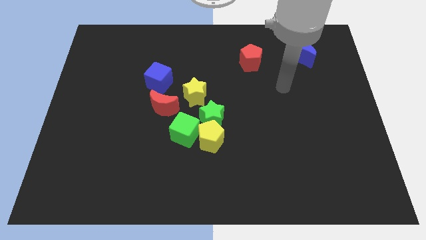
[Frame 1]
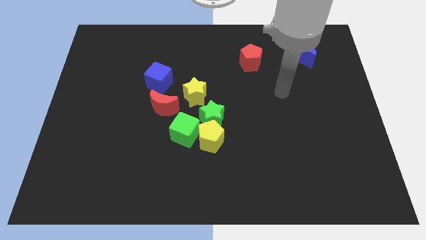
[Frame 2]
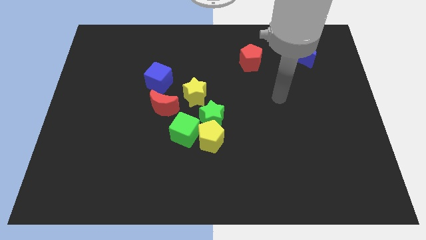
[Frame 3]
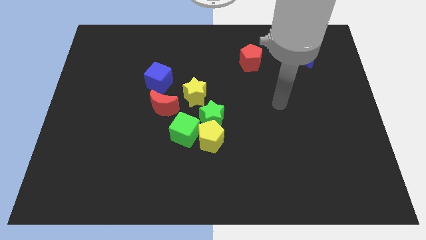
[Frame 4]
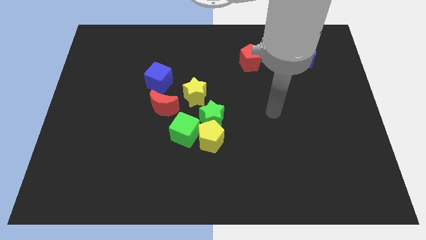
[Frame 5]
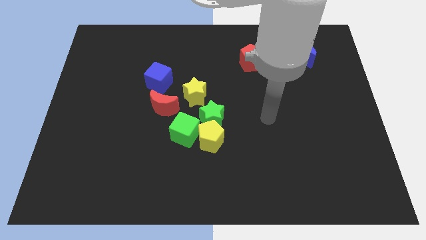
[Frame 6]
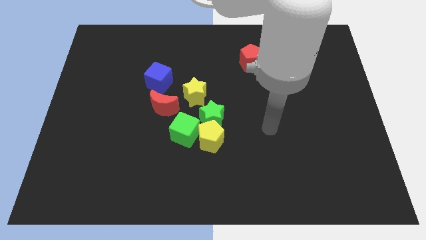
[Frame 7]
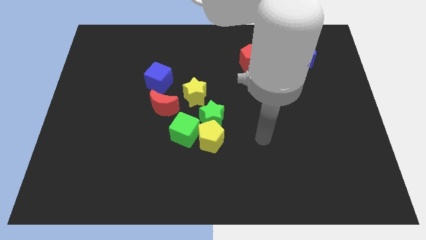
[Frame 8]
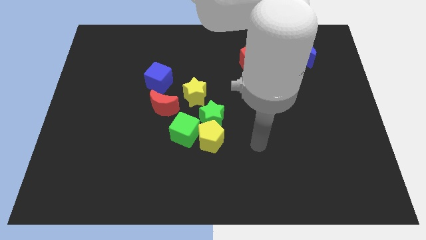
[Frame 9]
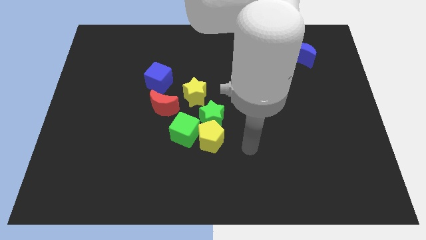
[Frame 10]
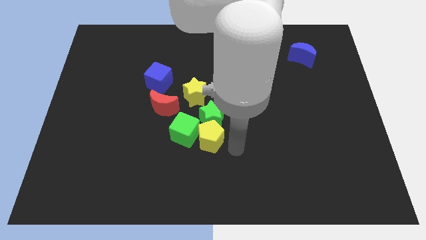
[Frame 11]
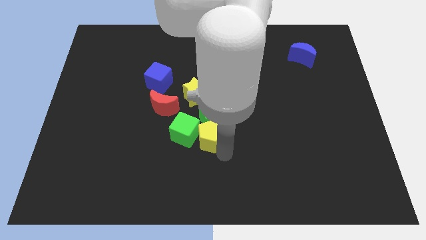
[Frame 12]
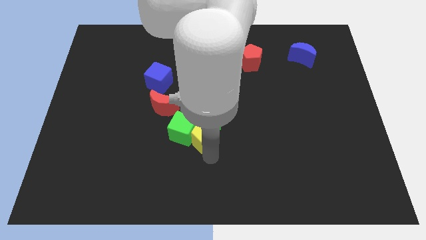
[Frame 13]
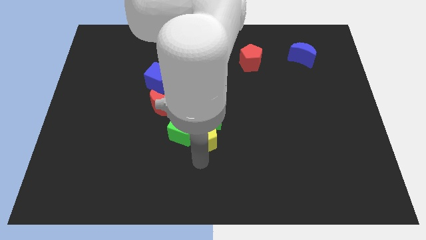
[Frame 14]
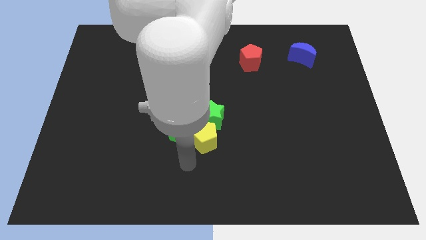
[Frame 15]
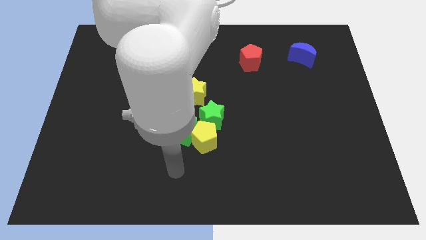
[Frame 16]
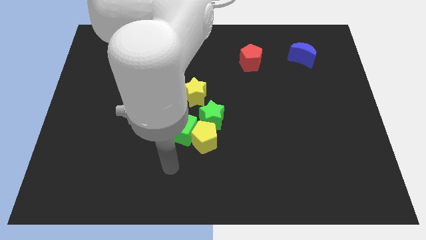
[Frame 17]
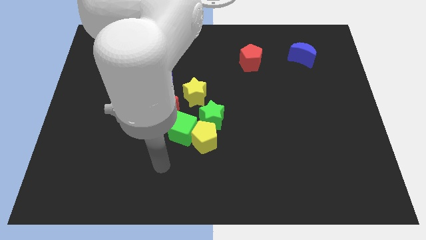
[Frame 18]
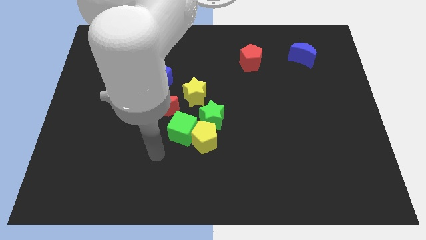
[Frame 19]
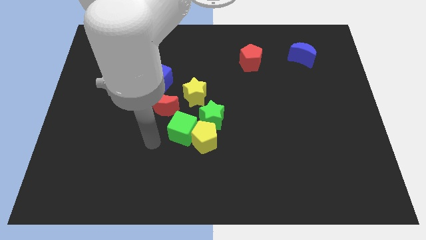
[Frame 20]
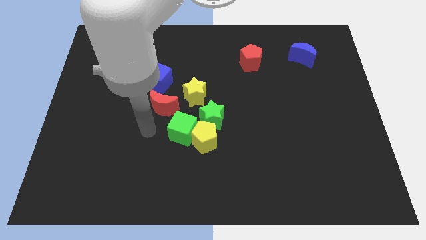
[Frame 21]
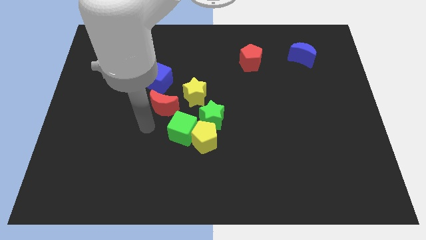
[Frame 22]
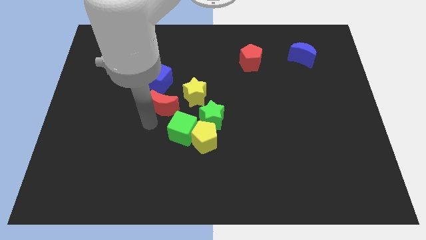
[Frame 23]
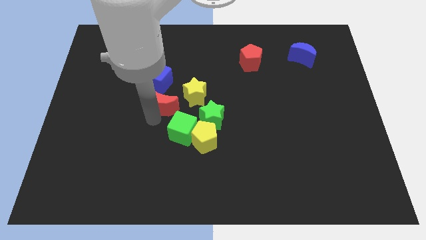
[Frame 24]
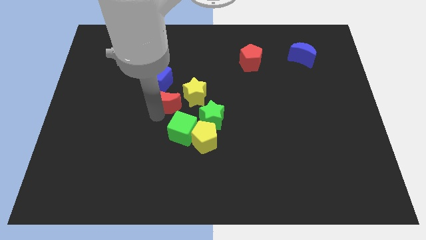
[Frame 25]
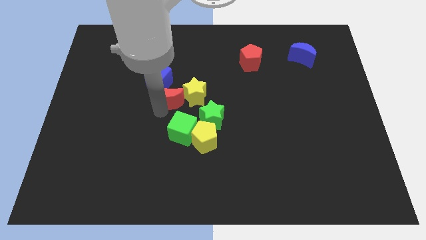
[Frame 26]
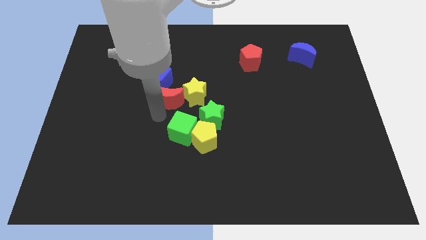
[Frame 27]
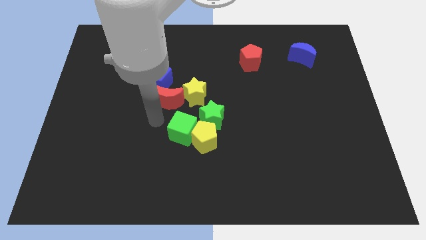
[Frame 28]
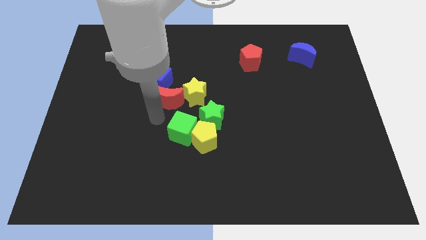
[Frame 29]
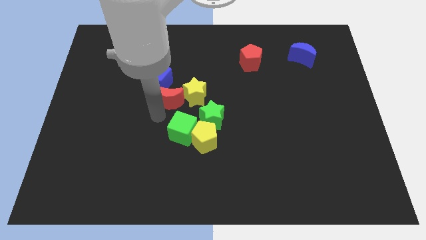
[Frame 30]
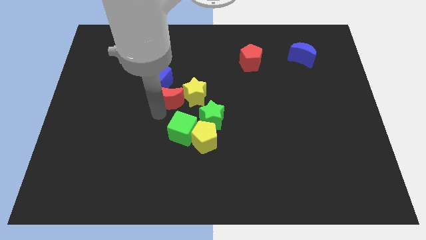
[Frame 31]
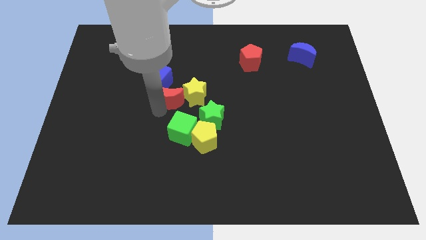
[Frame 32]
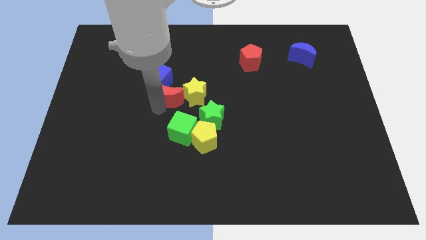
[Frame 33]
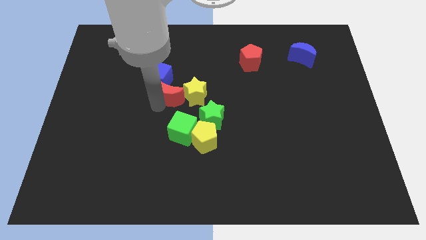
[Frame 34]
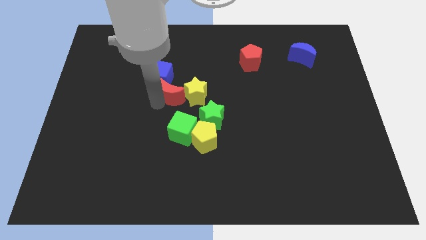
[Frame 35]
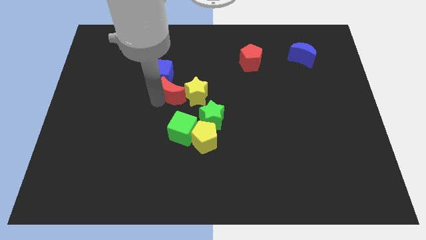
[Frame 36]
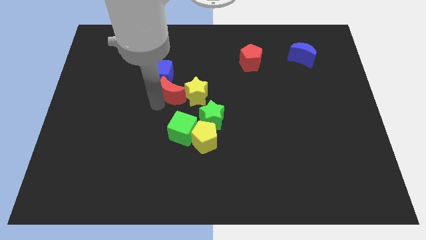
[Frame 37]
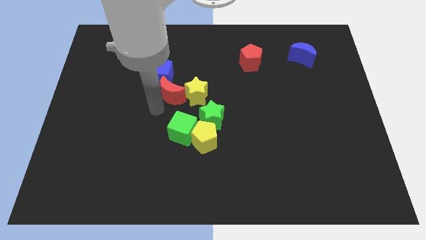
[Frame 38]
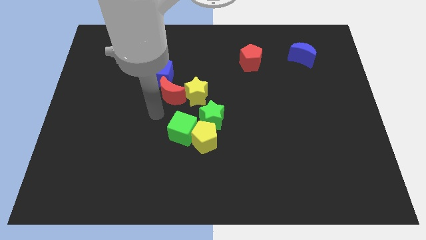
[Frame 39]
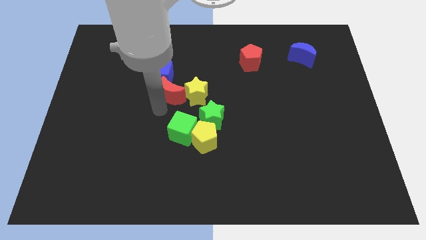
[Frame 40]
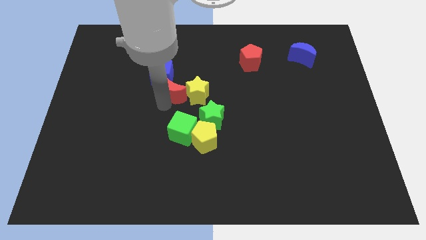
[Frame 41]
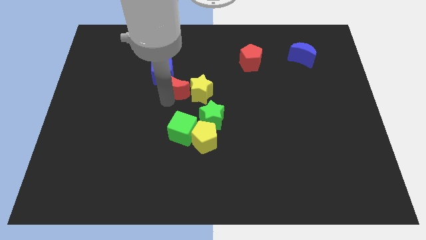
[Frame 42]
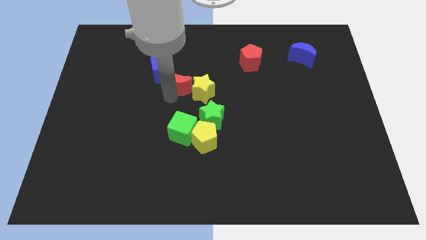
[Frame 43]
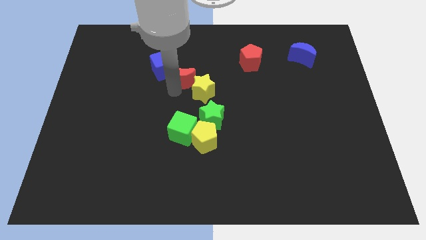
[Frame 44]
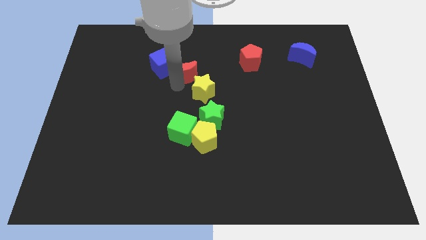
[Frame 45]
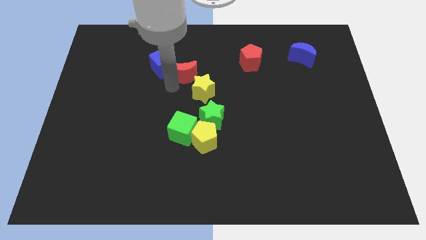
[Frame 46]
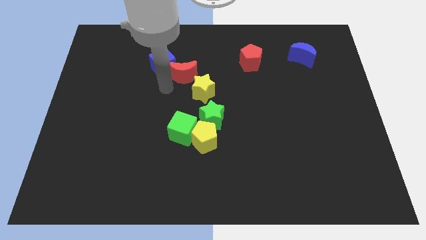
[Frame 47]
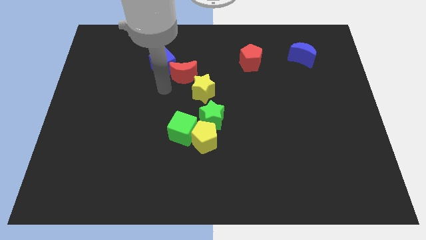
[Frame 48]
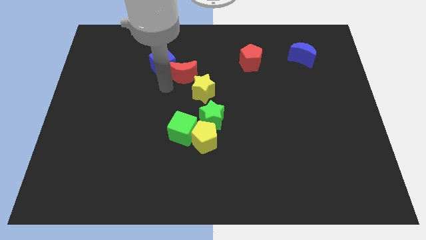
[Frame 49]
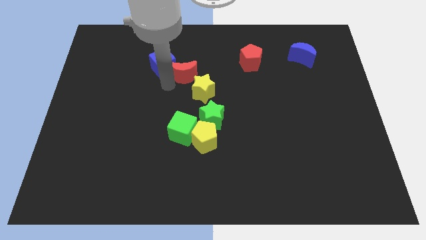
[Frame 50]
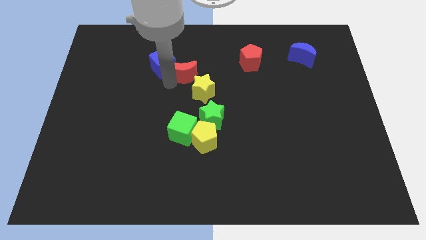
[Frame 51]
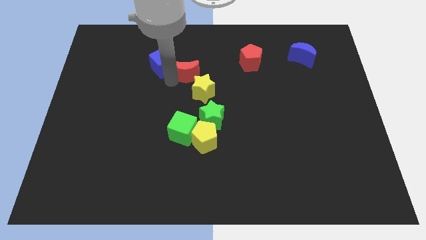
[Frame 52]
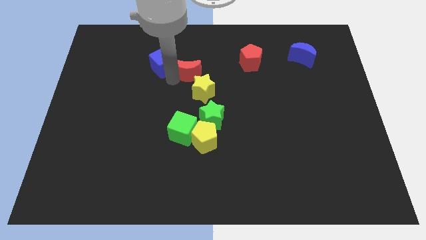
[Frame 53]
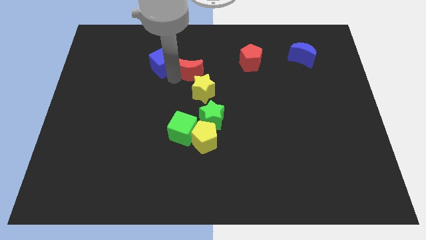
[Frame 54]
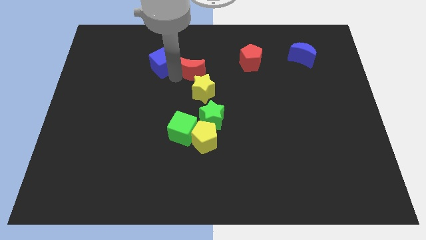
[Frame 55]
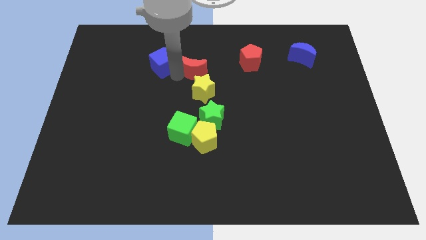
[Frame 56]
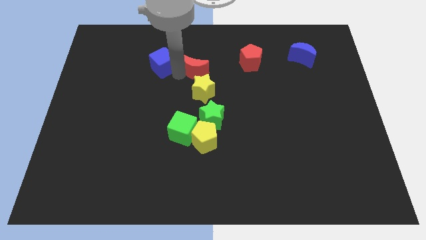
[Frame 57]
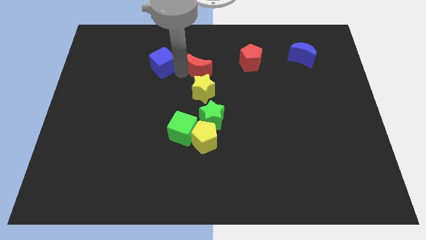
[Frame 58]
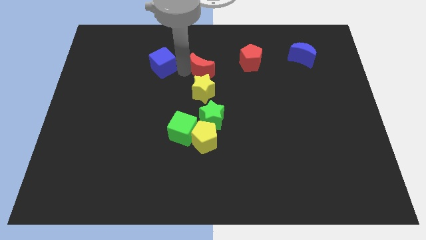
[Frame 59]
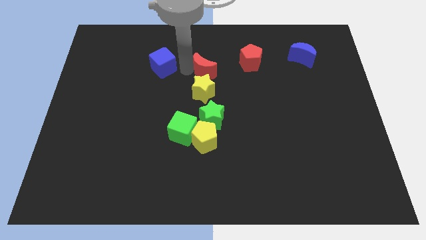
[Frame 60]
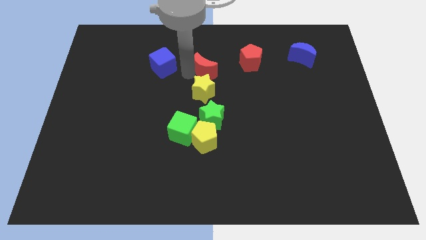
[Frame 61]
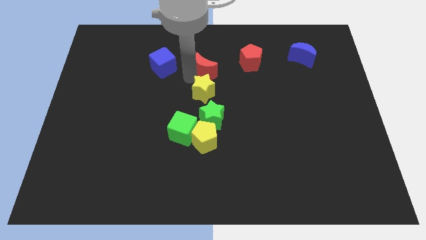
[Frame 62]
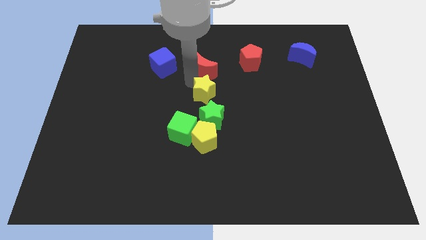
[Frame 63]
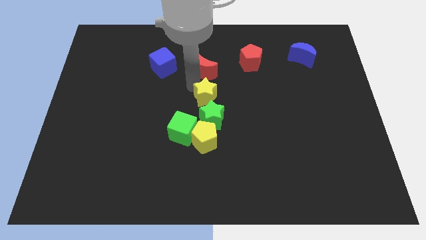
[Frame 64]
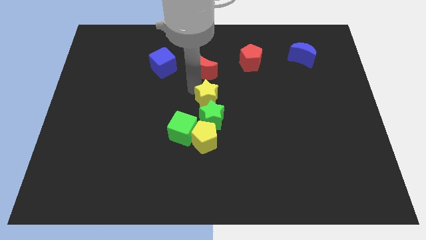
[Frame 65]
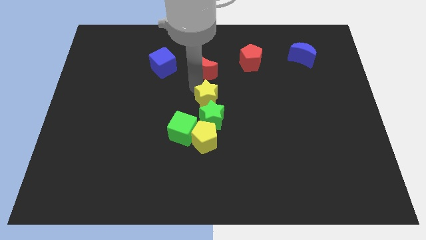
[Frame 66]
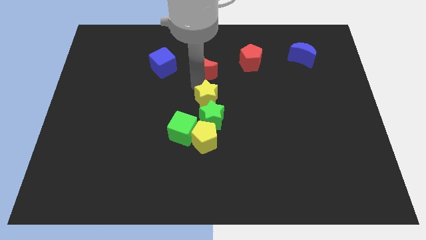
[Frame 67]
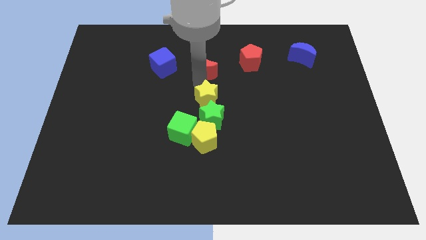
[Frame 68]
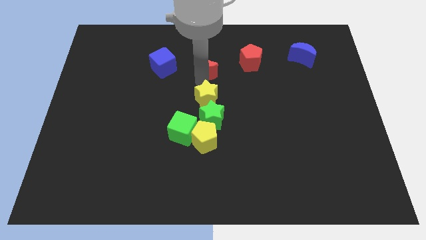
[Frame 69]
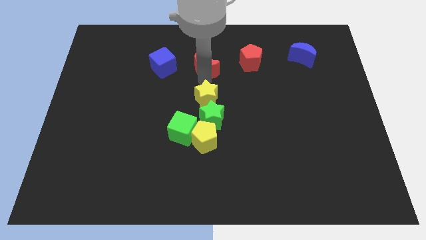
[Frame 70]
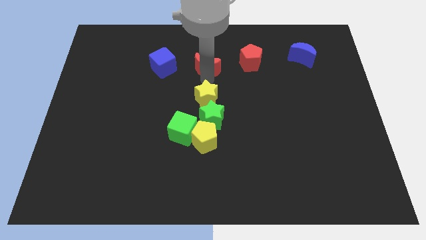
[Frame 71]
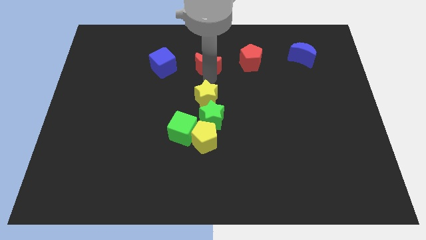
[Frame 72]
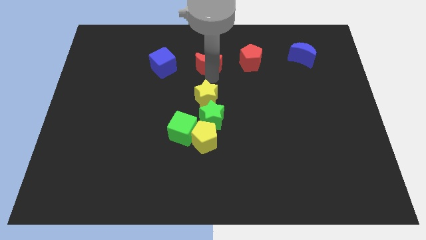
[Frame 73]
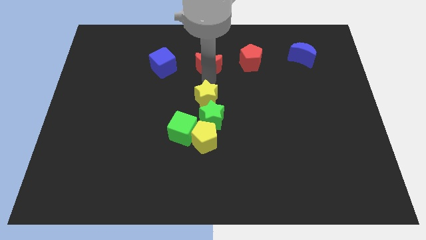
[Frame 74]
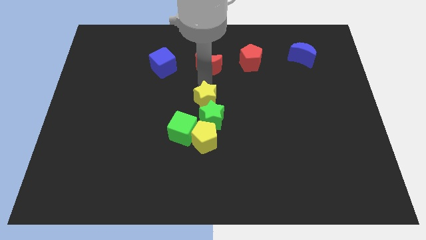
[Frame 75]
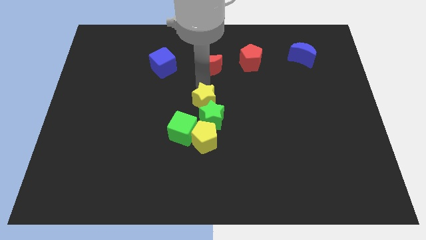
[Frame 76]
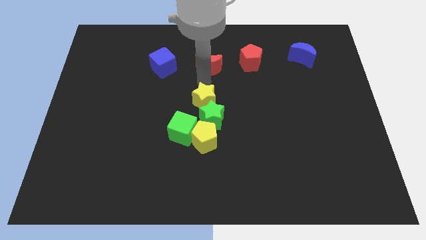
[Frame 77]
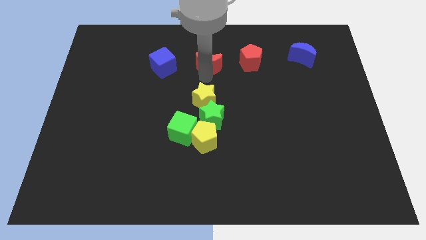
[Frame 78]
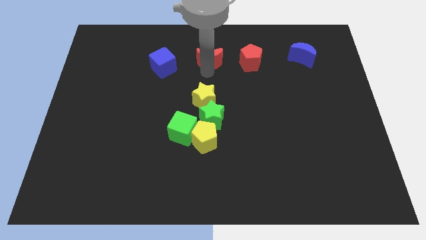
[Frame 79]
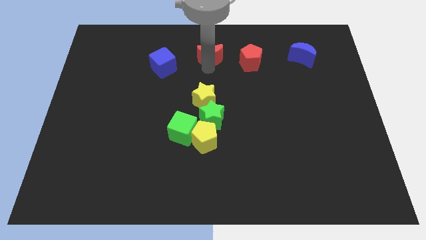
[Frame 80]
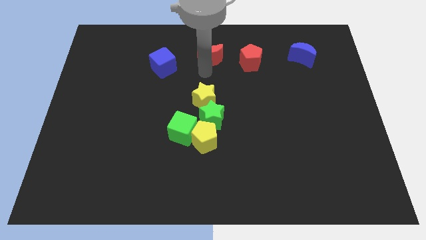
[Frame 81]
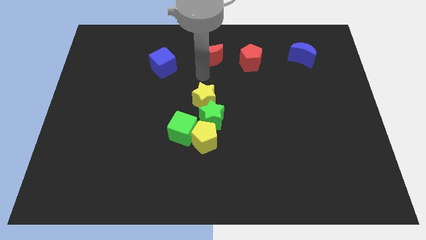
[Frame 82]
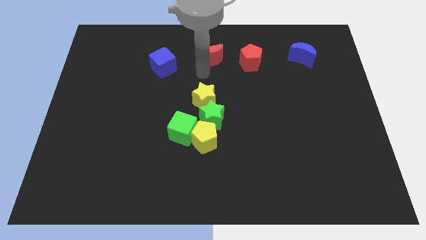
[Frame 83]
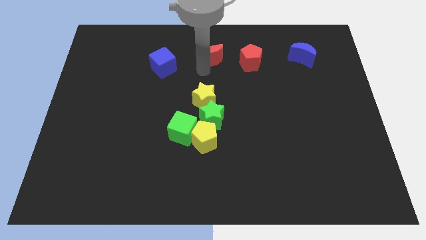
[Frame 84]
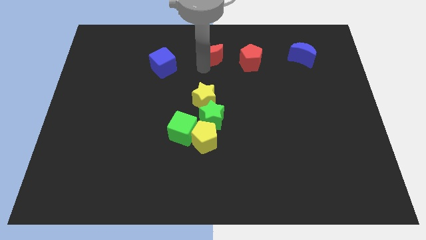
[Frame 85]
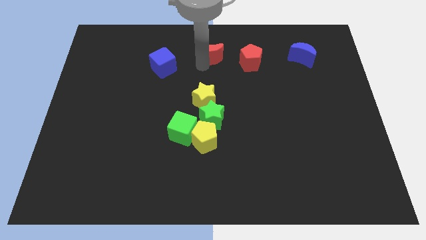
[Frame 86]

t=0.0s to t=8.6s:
slide the red moon to the top side
